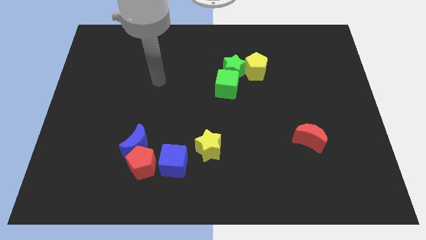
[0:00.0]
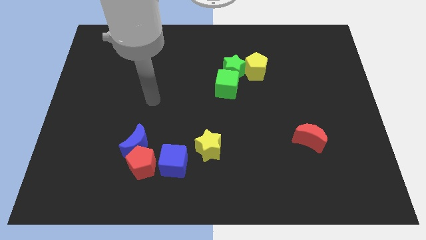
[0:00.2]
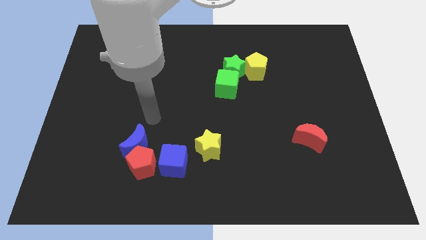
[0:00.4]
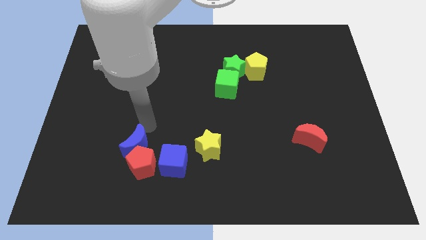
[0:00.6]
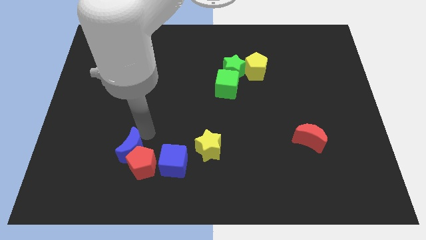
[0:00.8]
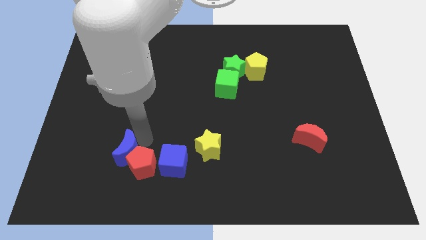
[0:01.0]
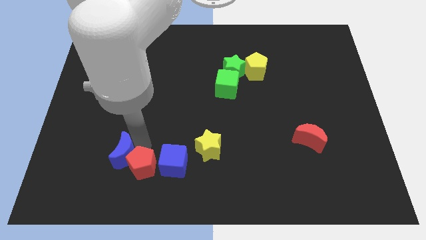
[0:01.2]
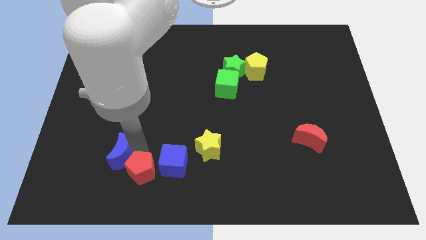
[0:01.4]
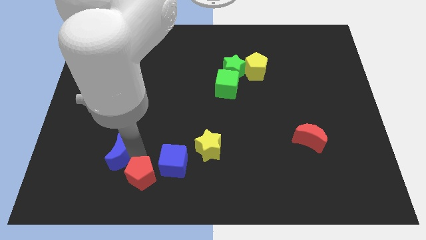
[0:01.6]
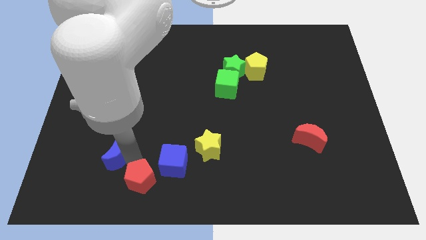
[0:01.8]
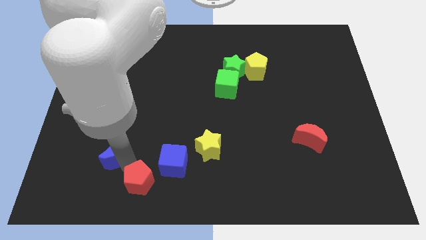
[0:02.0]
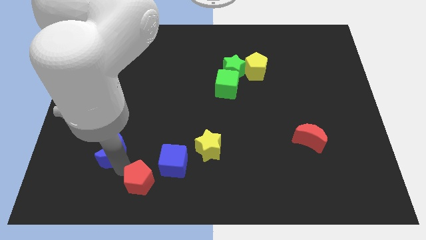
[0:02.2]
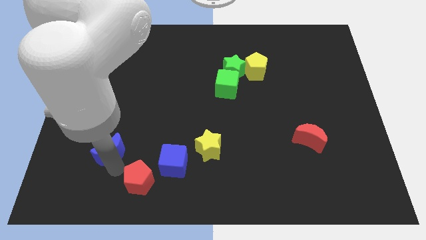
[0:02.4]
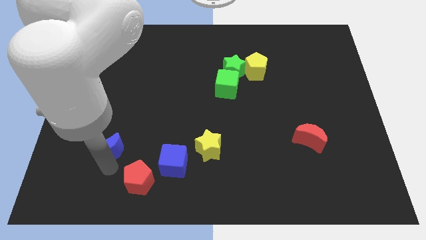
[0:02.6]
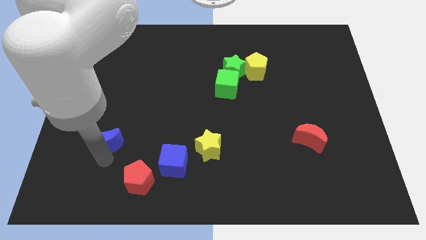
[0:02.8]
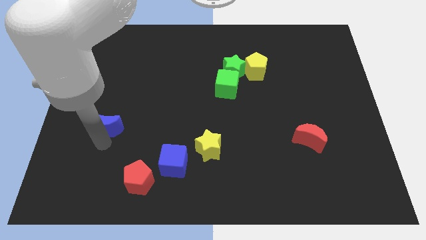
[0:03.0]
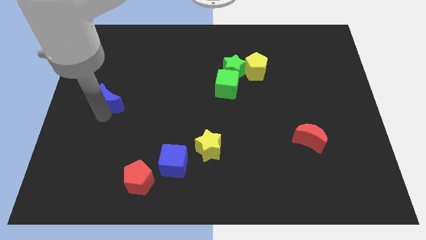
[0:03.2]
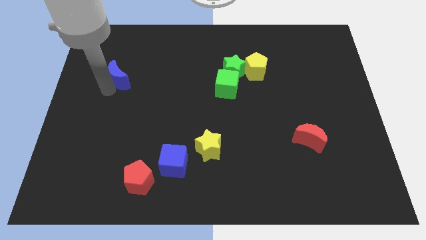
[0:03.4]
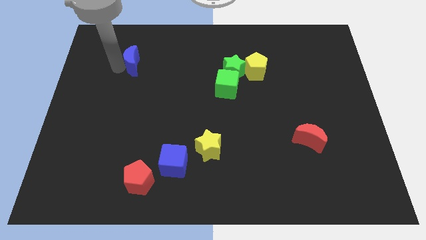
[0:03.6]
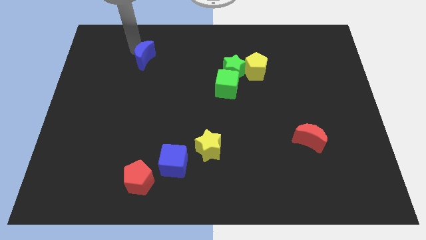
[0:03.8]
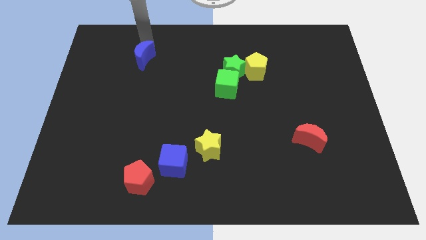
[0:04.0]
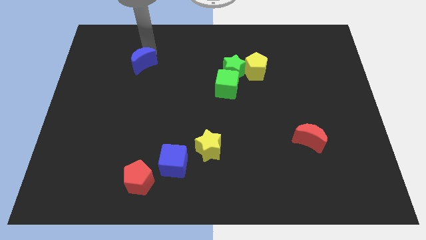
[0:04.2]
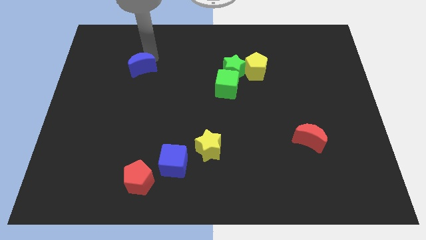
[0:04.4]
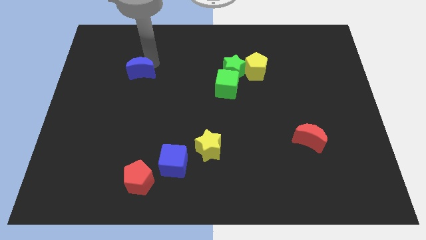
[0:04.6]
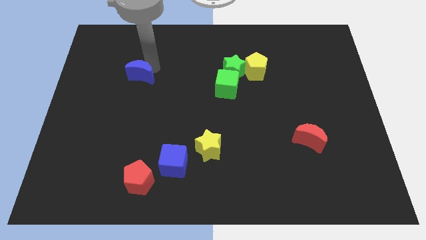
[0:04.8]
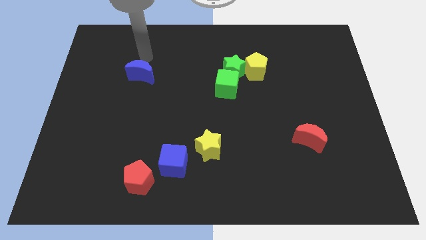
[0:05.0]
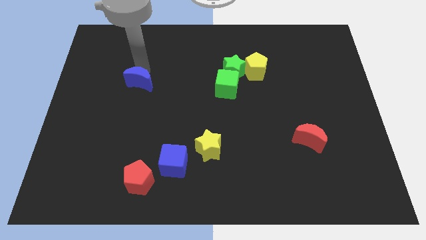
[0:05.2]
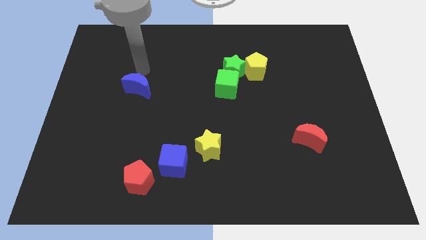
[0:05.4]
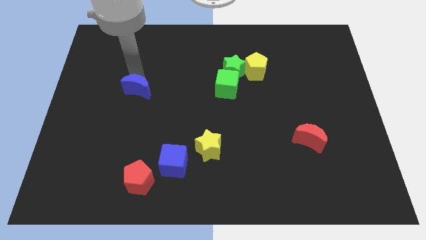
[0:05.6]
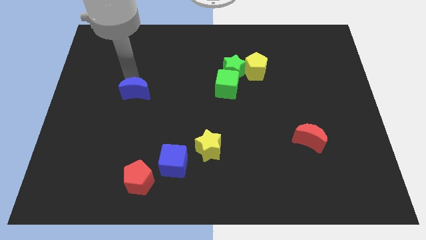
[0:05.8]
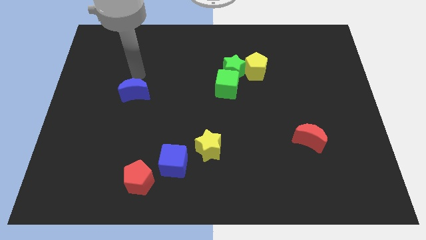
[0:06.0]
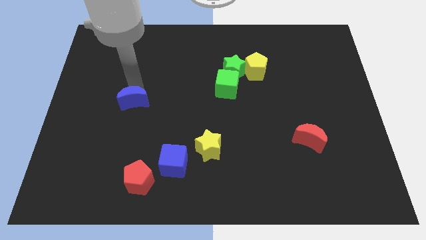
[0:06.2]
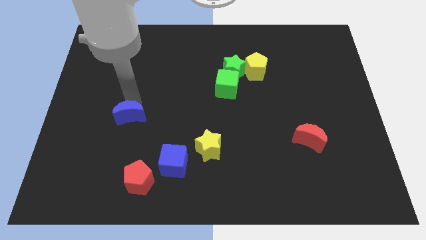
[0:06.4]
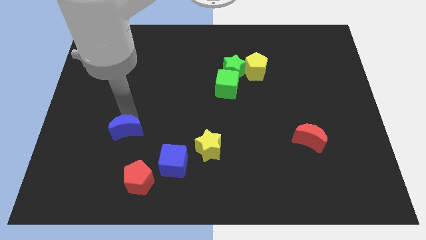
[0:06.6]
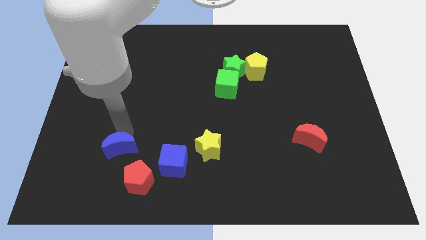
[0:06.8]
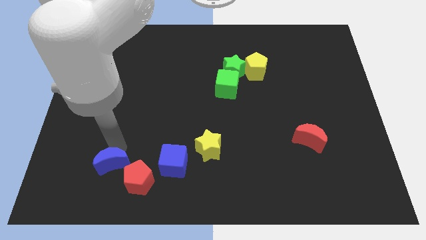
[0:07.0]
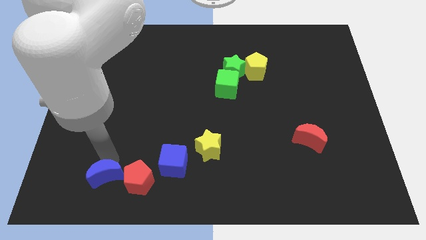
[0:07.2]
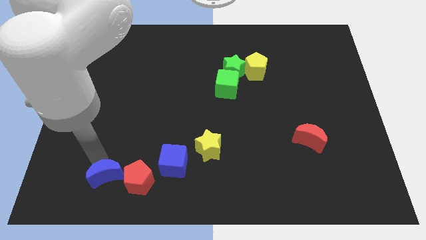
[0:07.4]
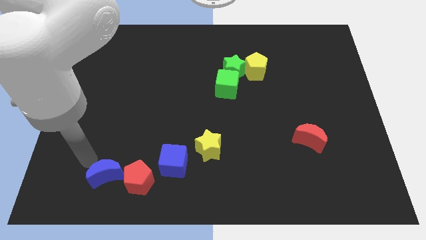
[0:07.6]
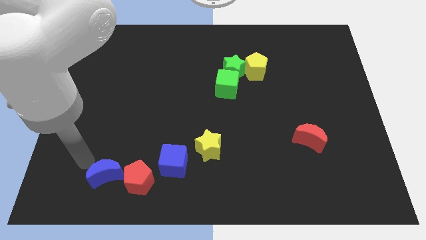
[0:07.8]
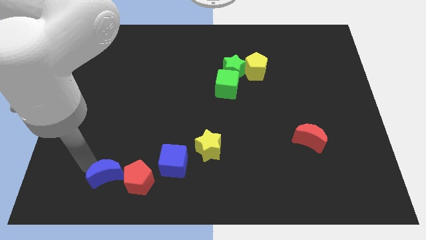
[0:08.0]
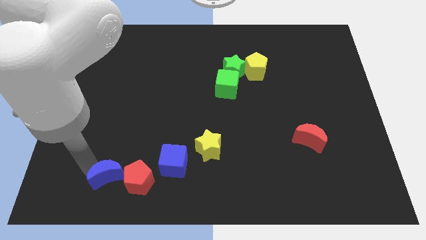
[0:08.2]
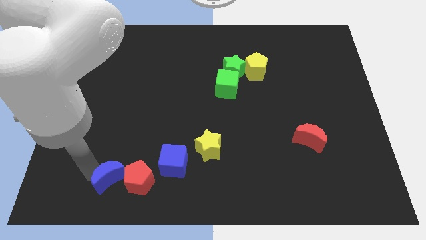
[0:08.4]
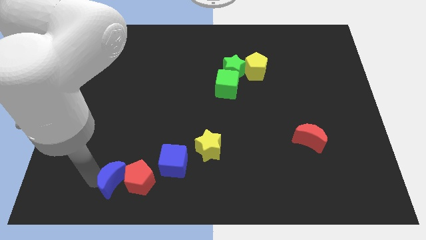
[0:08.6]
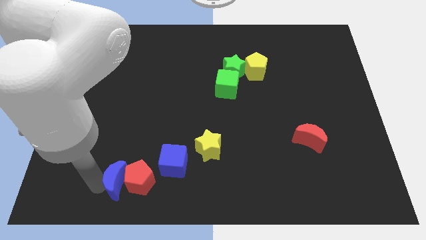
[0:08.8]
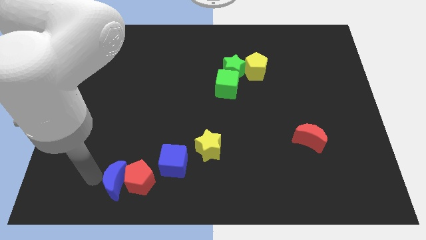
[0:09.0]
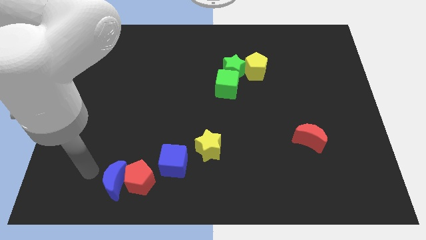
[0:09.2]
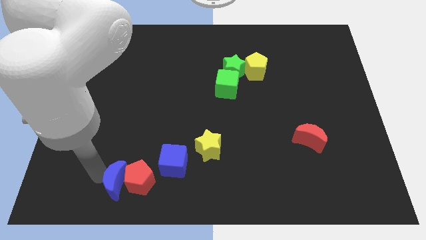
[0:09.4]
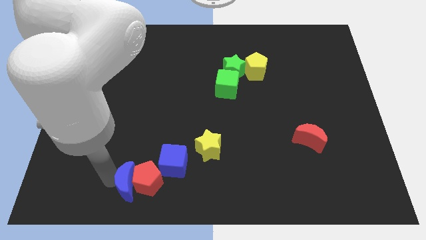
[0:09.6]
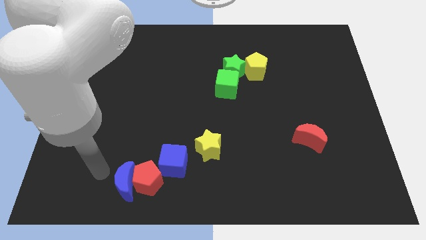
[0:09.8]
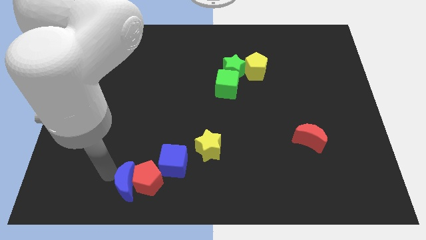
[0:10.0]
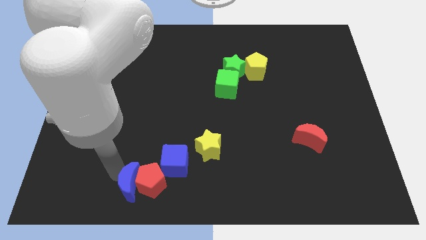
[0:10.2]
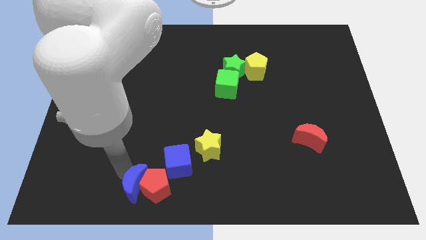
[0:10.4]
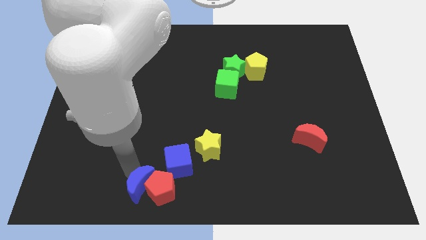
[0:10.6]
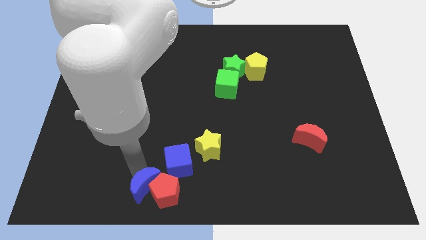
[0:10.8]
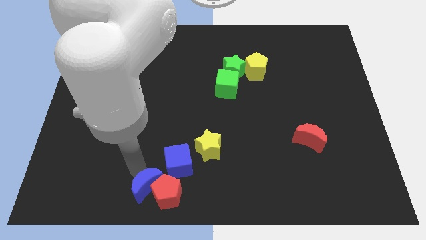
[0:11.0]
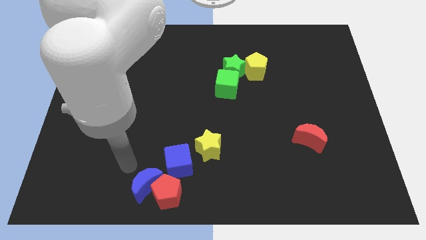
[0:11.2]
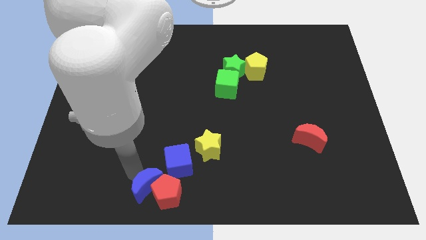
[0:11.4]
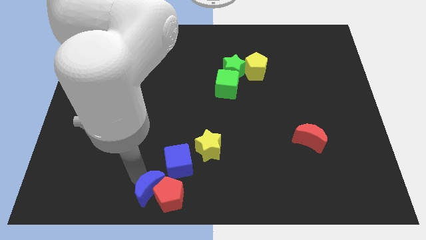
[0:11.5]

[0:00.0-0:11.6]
slide the blue moon to the bottom

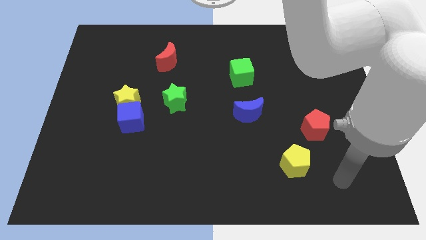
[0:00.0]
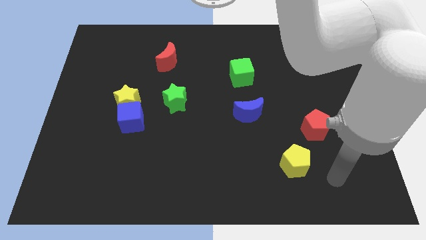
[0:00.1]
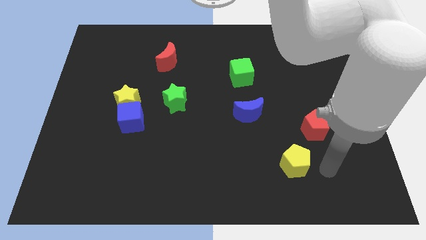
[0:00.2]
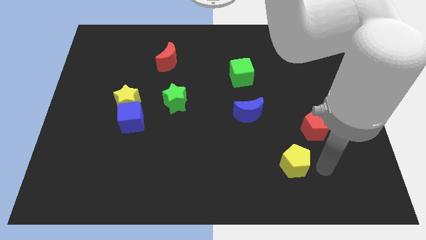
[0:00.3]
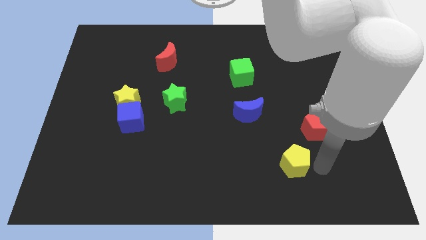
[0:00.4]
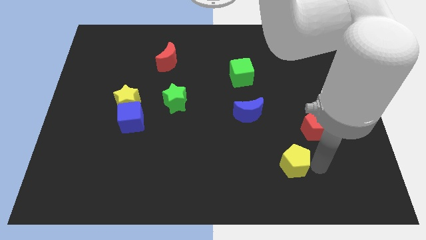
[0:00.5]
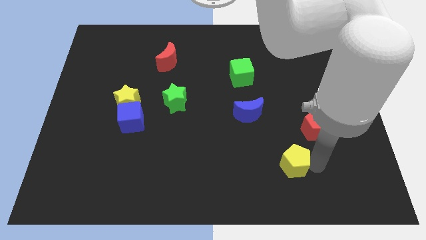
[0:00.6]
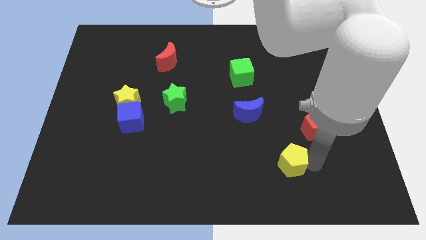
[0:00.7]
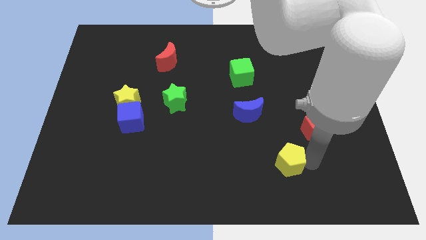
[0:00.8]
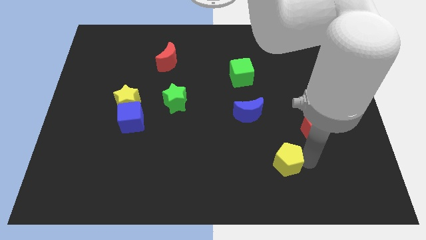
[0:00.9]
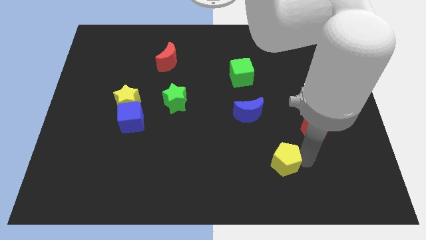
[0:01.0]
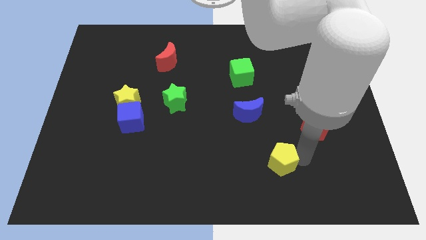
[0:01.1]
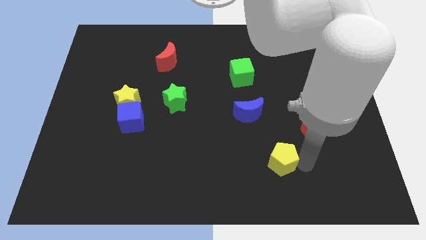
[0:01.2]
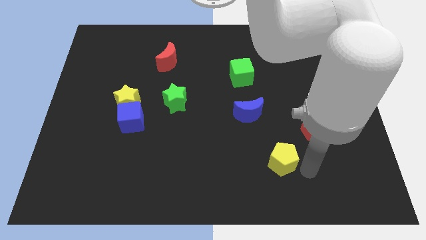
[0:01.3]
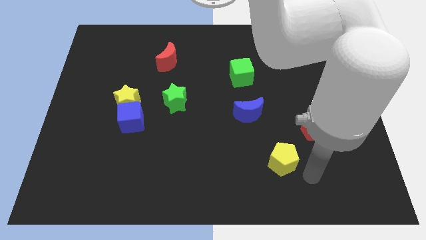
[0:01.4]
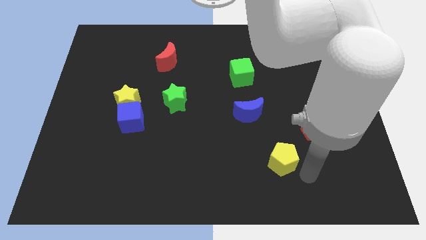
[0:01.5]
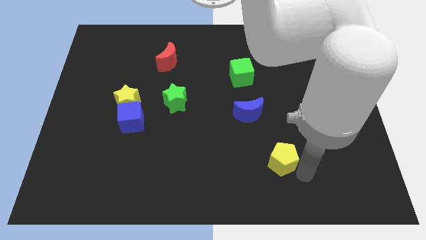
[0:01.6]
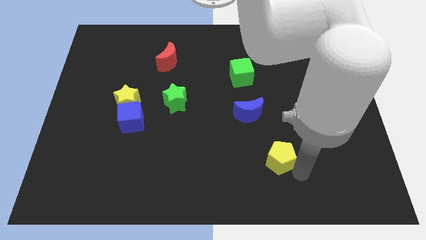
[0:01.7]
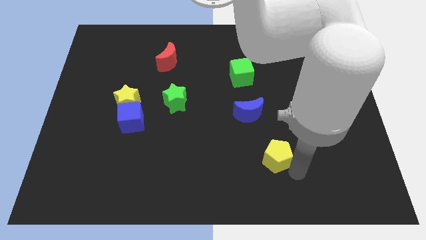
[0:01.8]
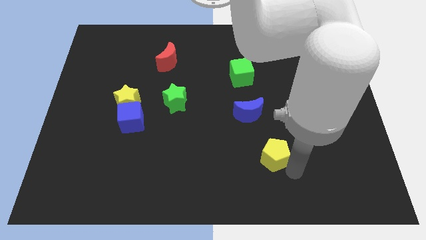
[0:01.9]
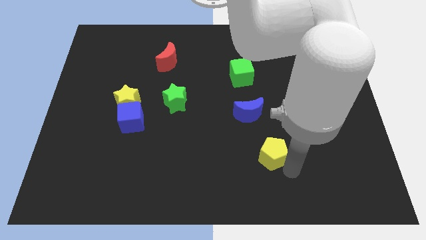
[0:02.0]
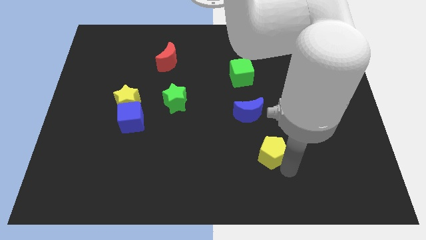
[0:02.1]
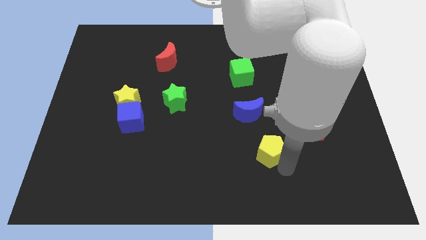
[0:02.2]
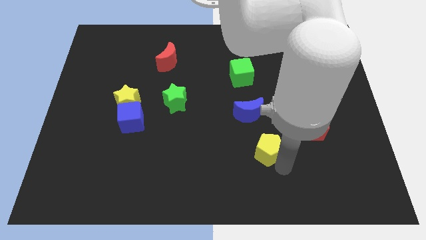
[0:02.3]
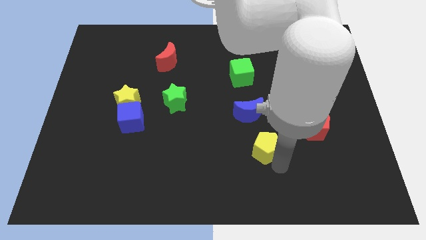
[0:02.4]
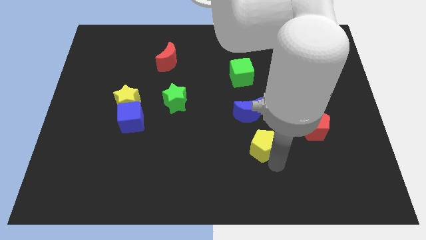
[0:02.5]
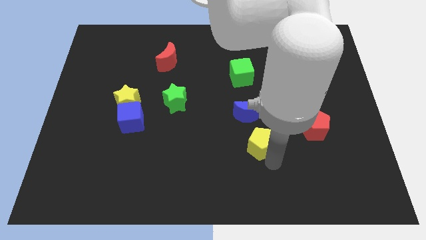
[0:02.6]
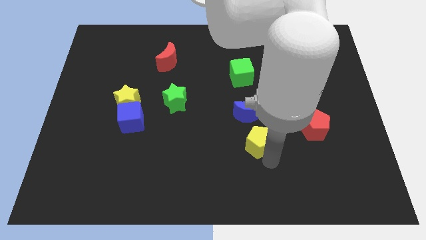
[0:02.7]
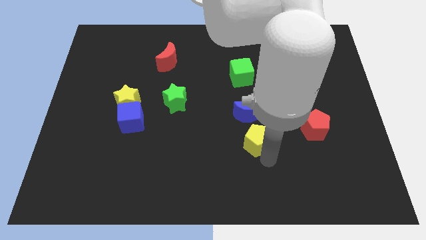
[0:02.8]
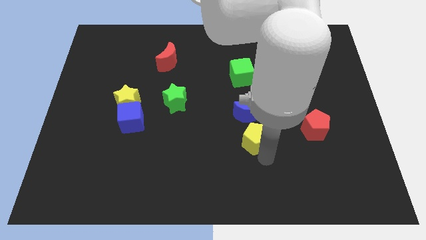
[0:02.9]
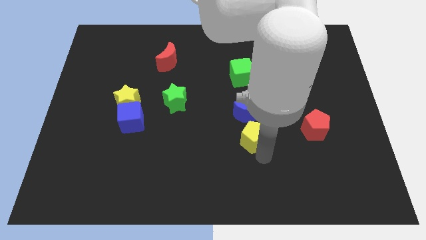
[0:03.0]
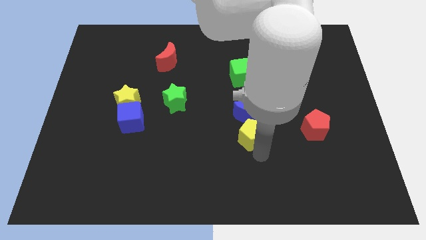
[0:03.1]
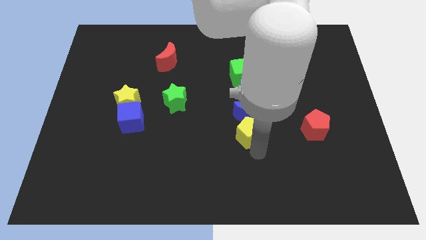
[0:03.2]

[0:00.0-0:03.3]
push the yellow pentagon to the center
